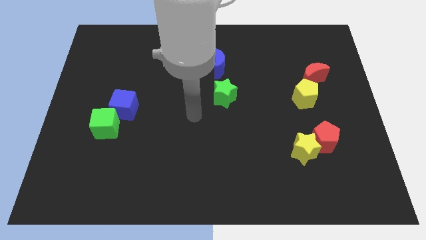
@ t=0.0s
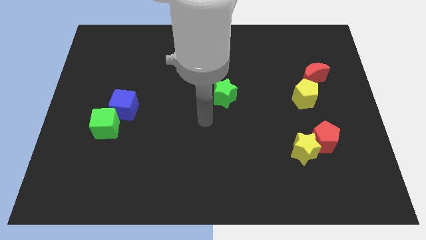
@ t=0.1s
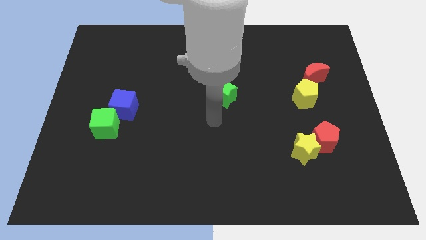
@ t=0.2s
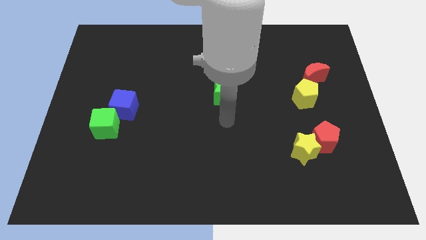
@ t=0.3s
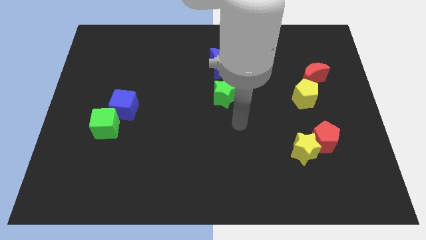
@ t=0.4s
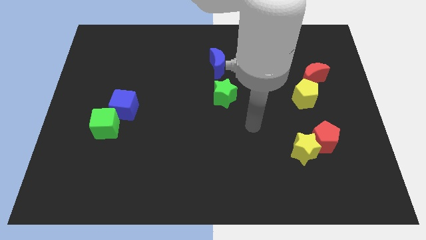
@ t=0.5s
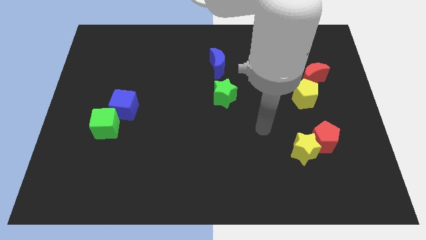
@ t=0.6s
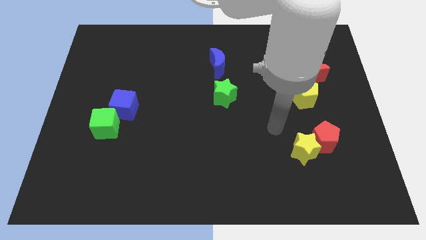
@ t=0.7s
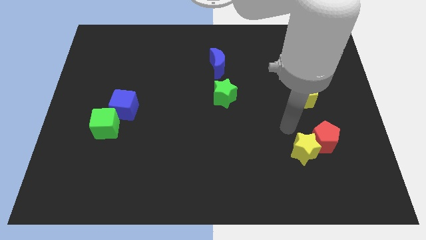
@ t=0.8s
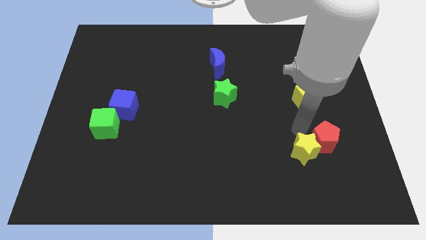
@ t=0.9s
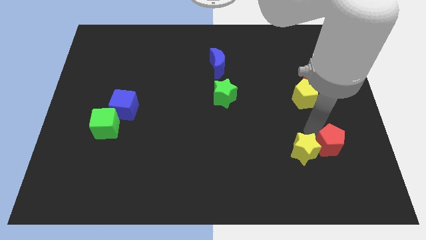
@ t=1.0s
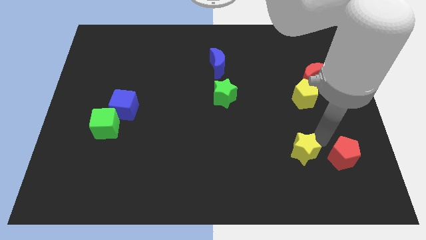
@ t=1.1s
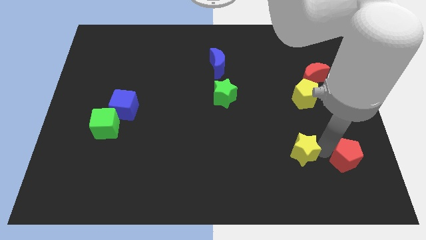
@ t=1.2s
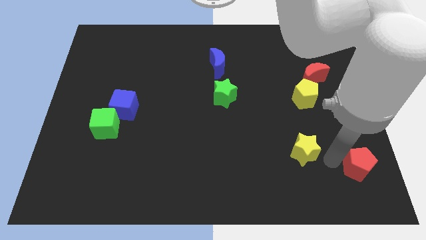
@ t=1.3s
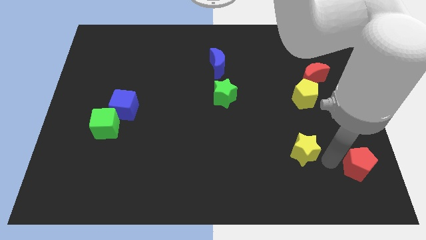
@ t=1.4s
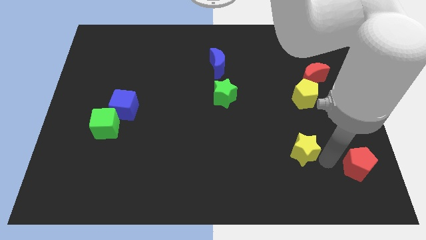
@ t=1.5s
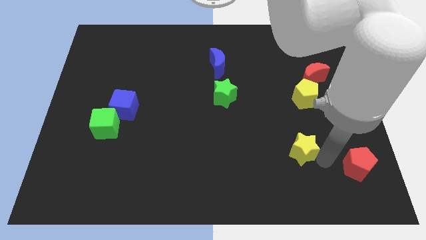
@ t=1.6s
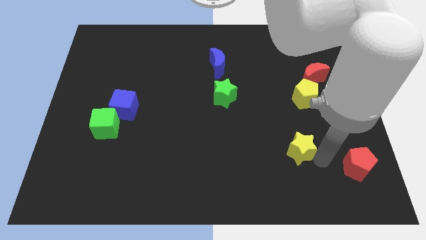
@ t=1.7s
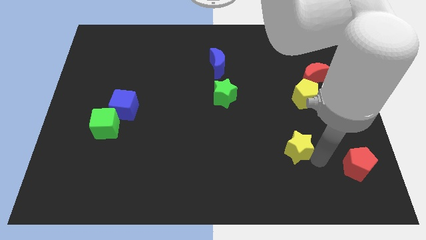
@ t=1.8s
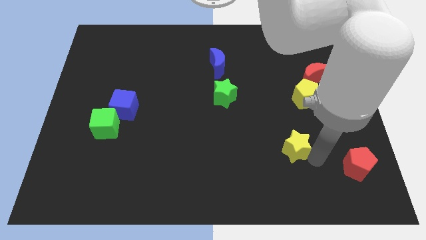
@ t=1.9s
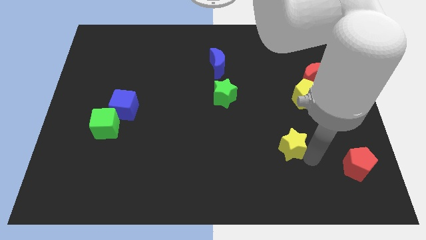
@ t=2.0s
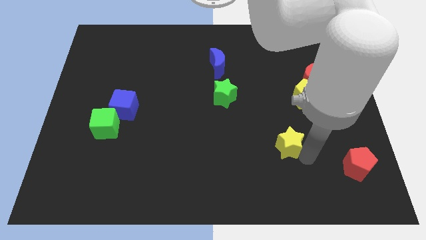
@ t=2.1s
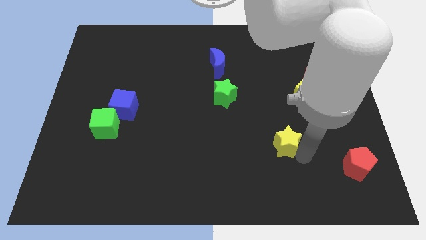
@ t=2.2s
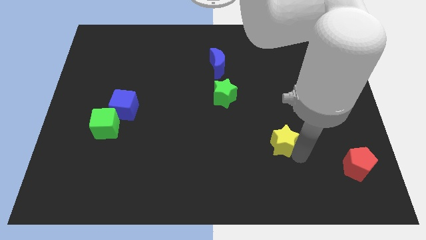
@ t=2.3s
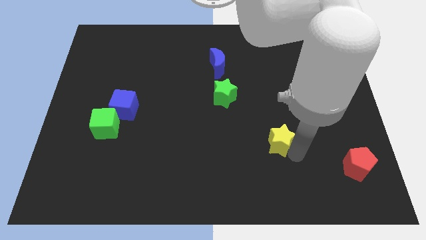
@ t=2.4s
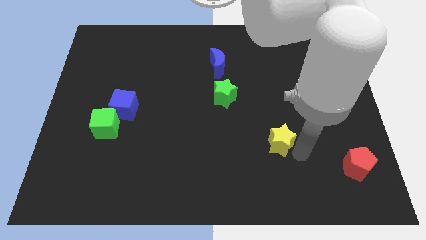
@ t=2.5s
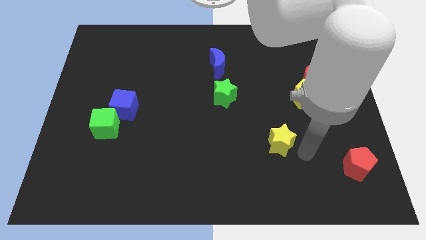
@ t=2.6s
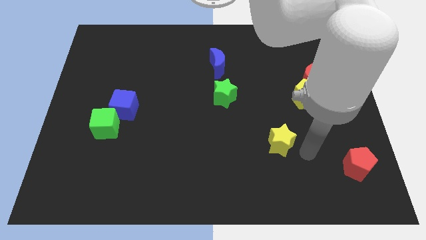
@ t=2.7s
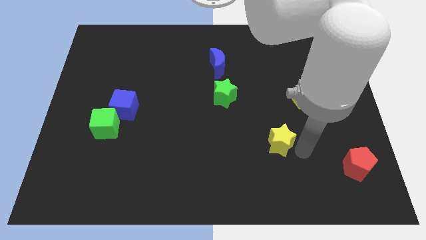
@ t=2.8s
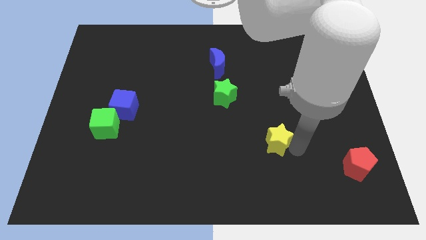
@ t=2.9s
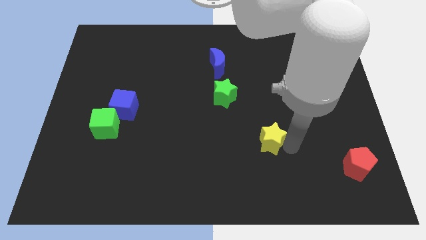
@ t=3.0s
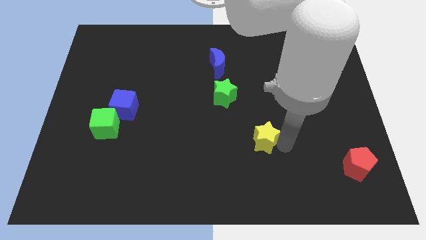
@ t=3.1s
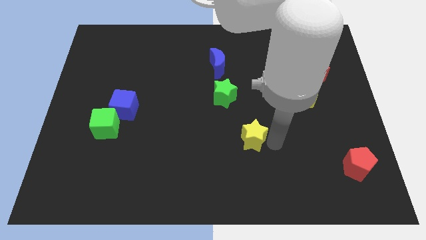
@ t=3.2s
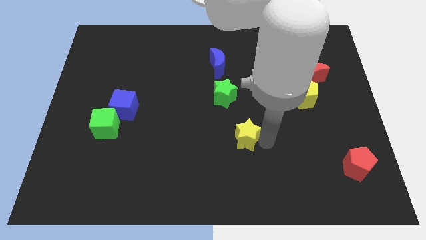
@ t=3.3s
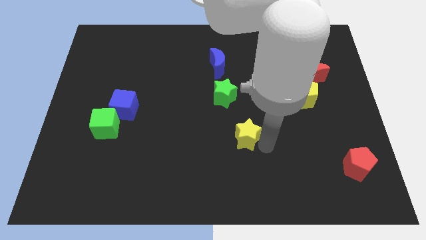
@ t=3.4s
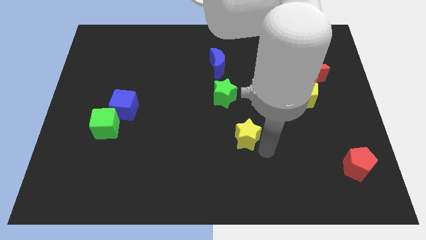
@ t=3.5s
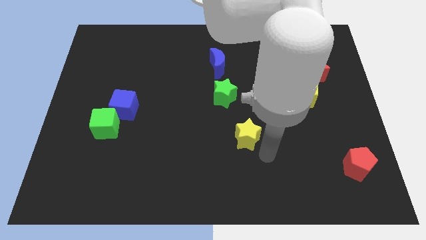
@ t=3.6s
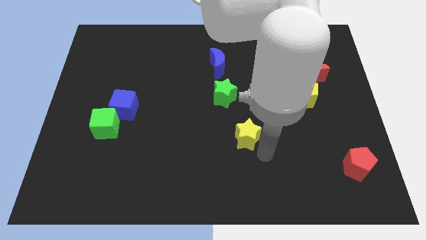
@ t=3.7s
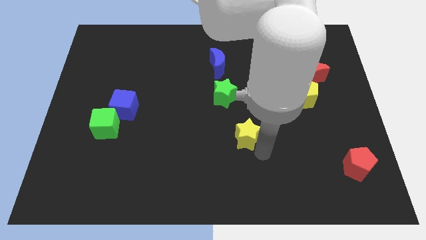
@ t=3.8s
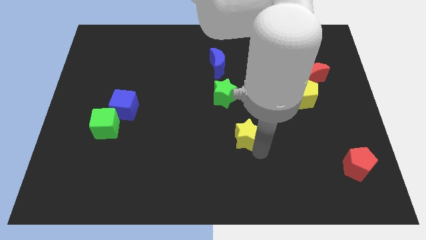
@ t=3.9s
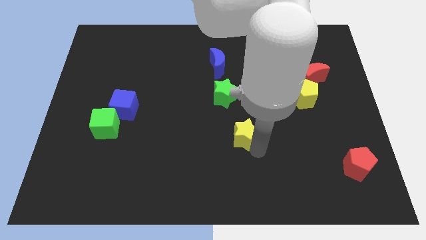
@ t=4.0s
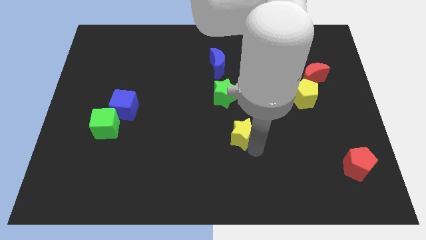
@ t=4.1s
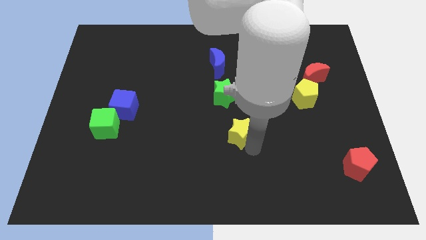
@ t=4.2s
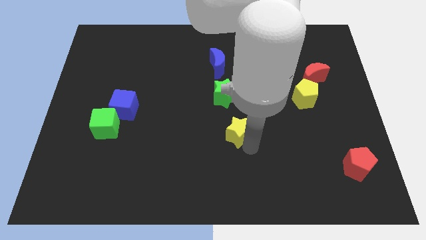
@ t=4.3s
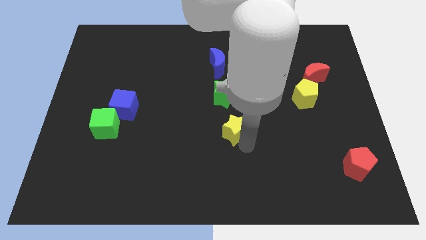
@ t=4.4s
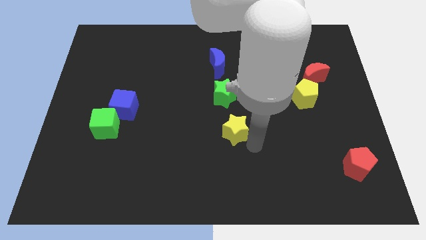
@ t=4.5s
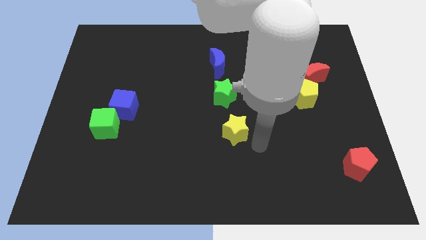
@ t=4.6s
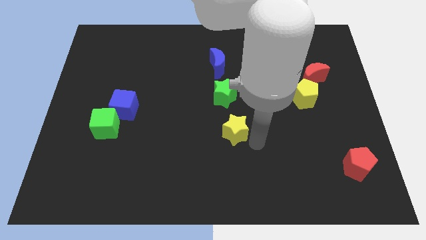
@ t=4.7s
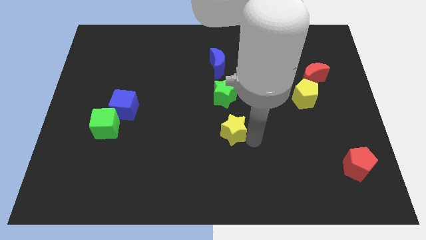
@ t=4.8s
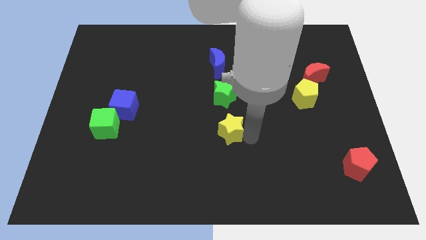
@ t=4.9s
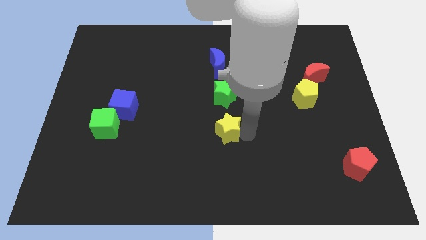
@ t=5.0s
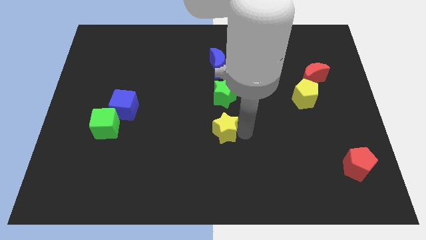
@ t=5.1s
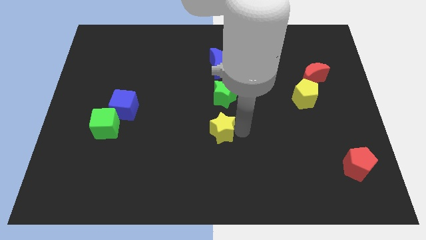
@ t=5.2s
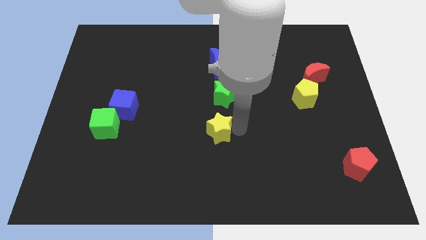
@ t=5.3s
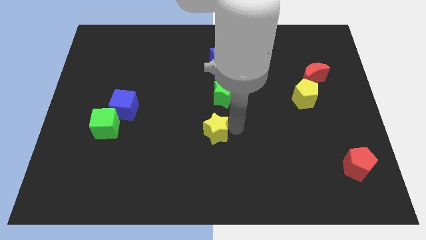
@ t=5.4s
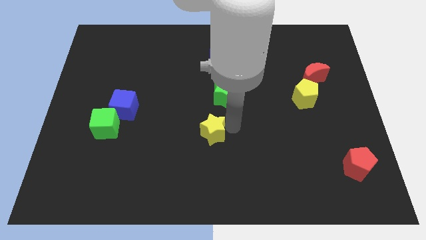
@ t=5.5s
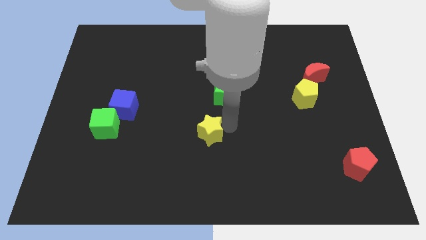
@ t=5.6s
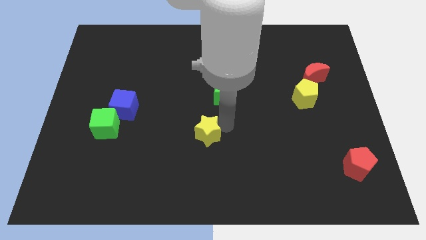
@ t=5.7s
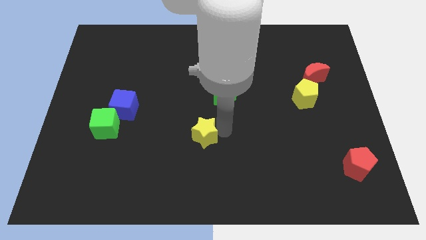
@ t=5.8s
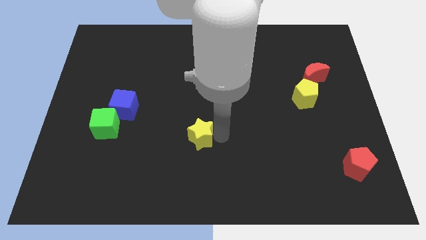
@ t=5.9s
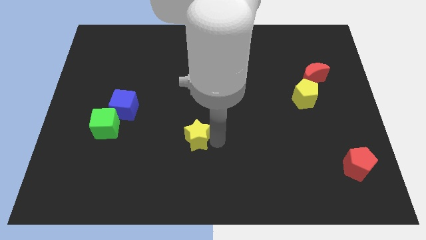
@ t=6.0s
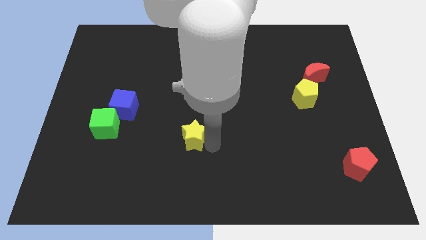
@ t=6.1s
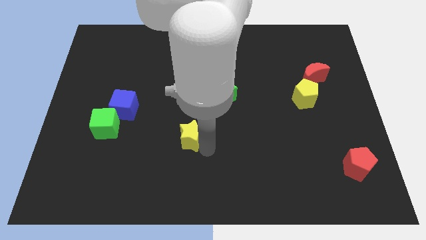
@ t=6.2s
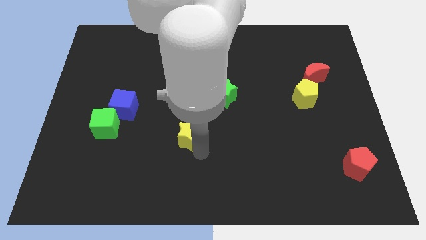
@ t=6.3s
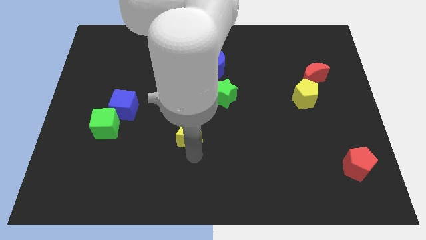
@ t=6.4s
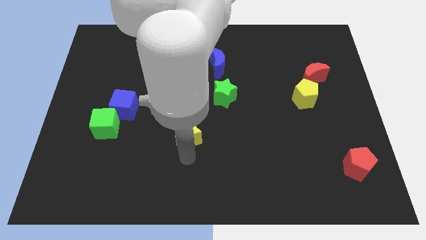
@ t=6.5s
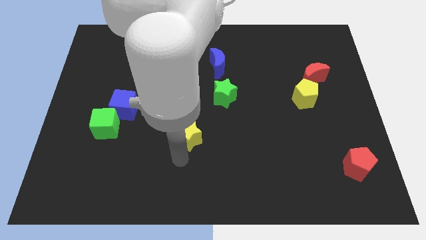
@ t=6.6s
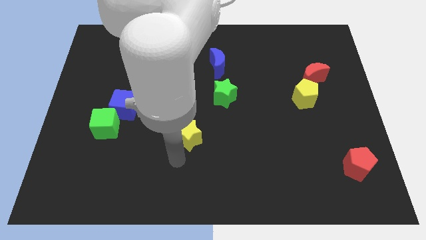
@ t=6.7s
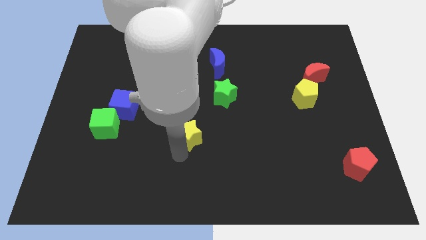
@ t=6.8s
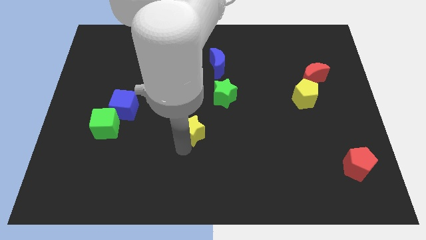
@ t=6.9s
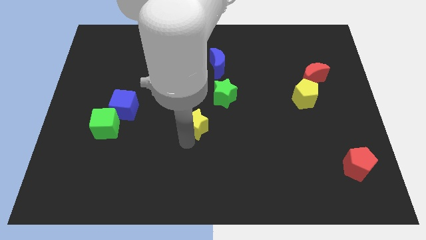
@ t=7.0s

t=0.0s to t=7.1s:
move the yellow star diagonally down and to the left of the green star
